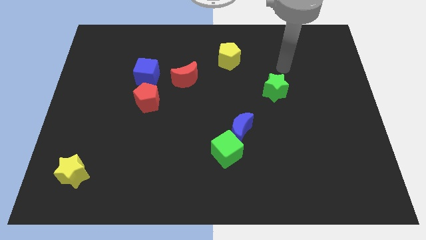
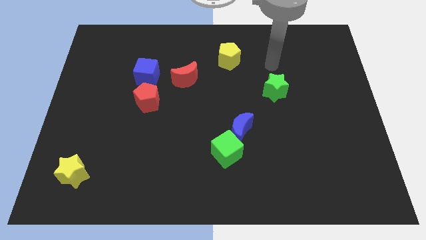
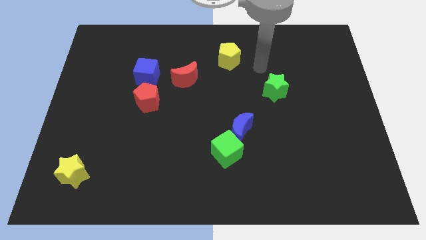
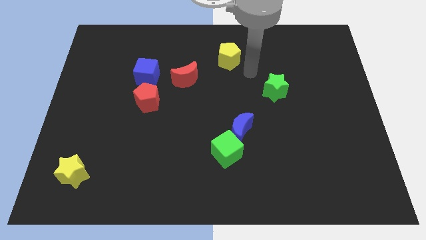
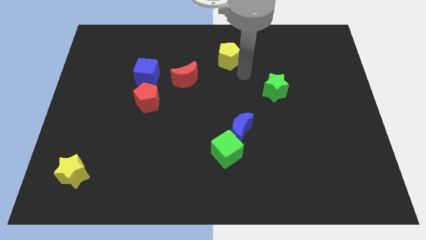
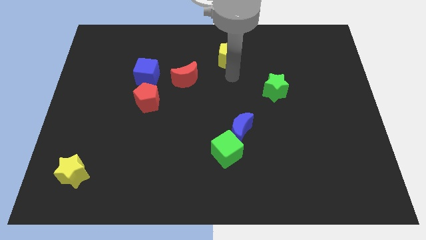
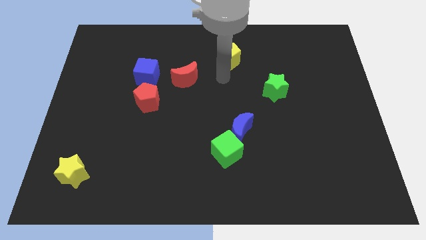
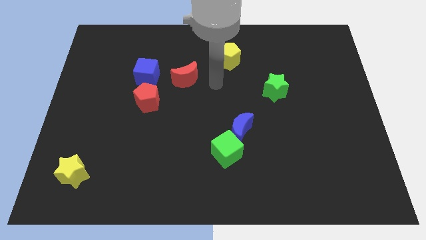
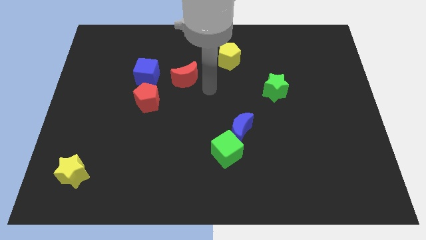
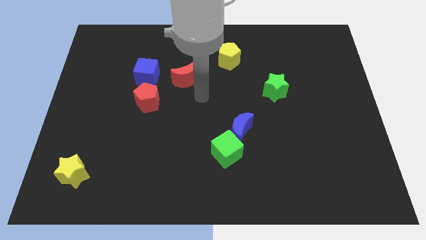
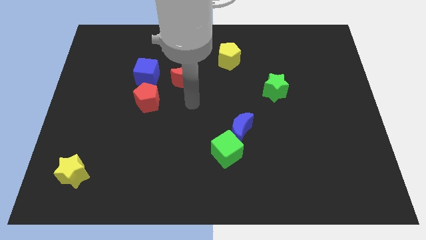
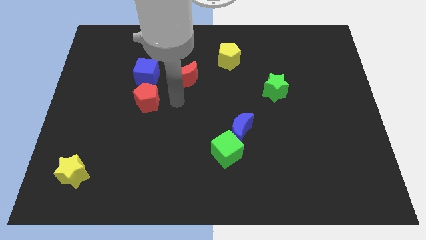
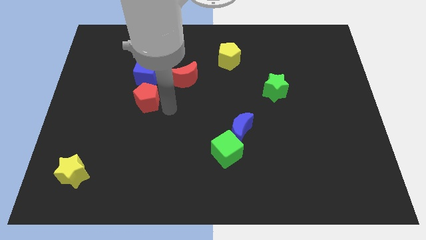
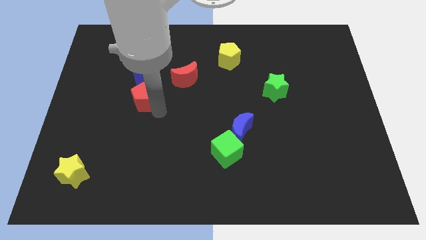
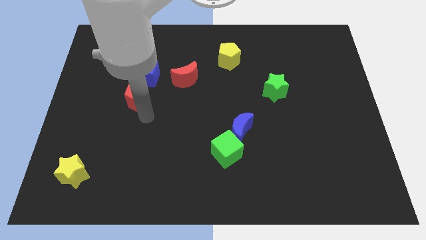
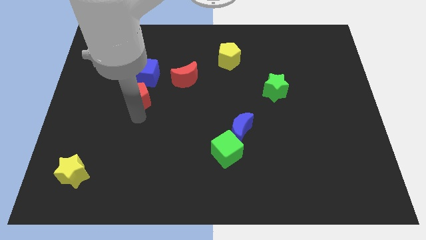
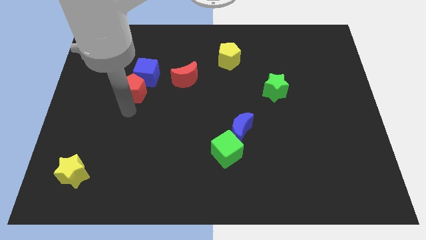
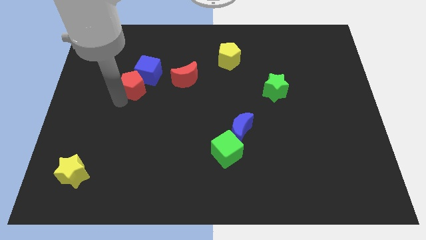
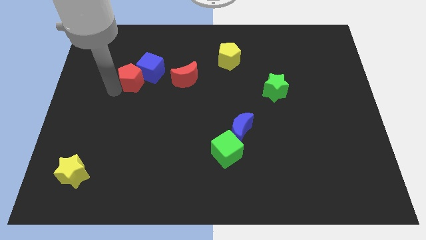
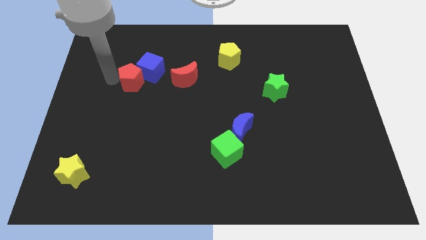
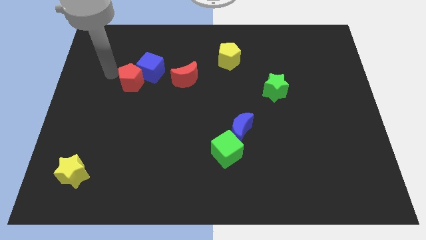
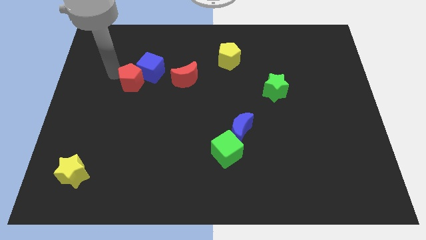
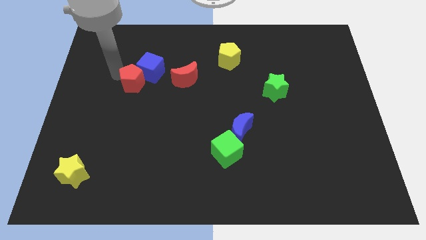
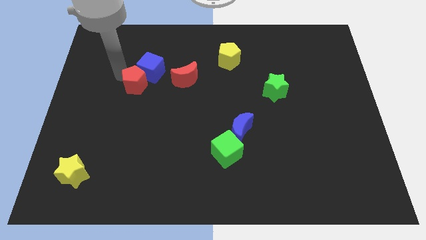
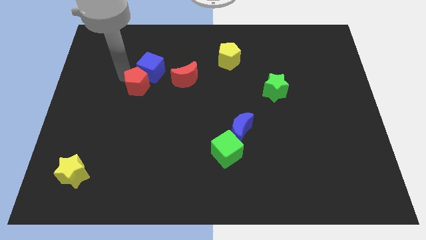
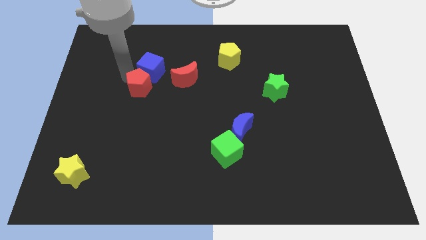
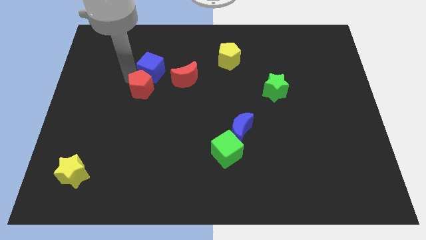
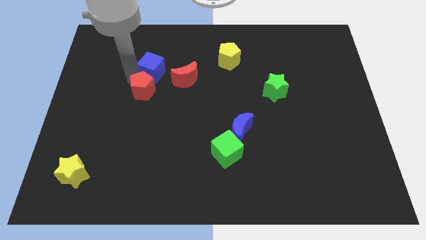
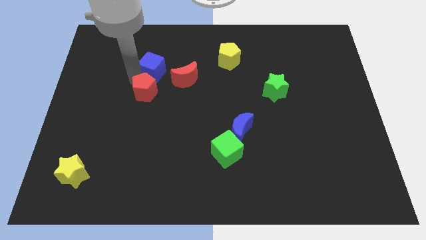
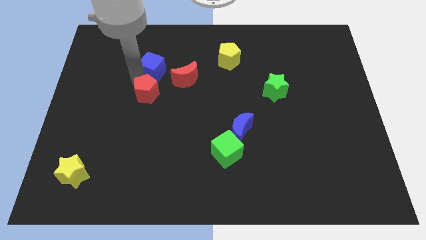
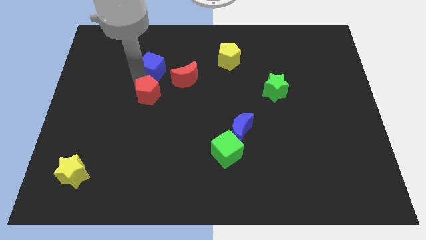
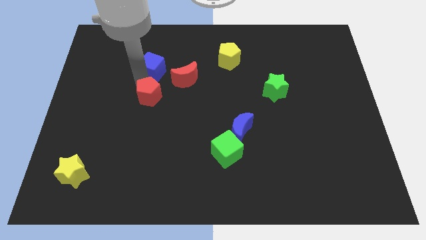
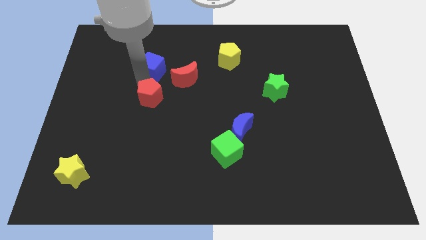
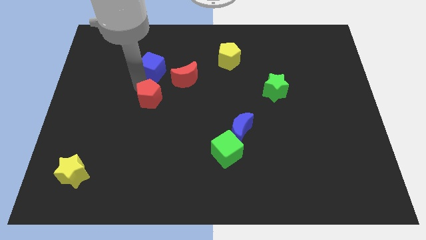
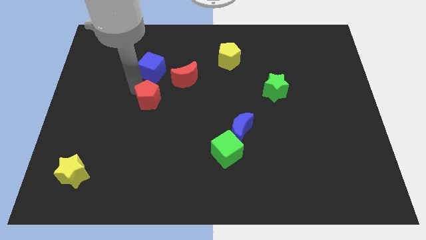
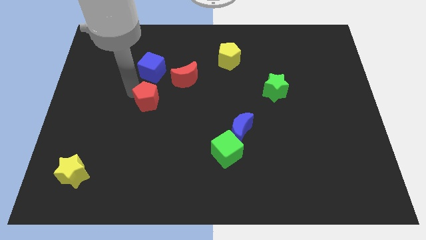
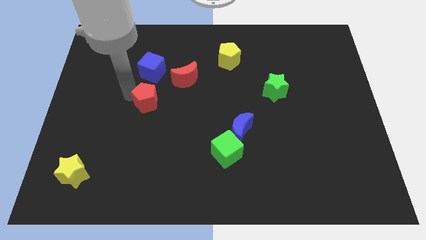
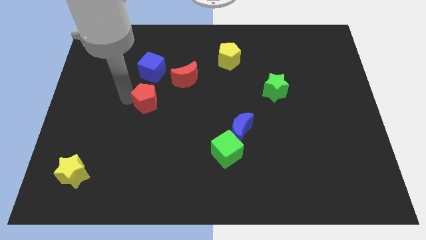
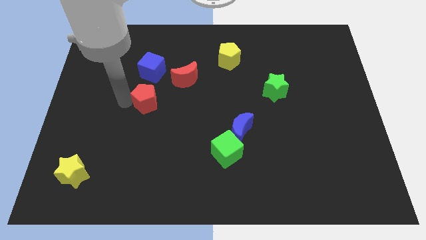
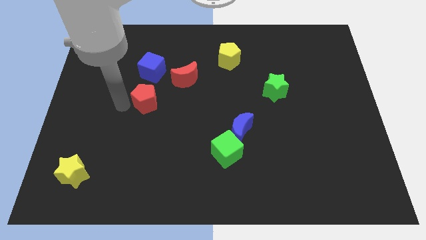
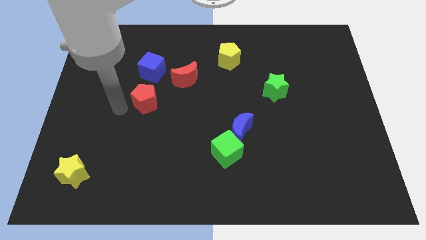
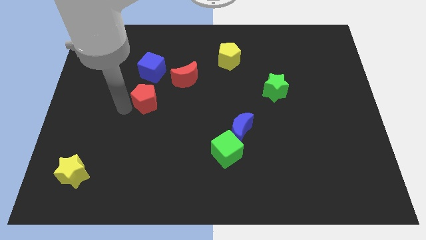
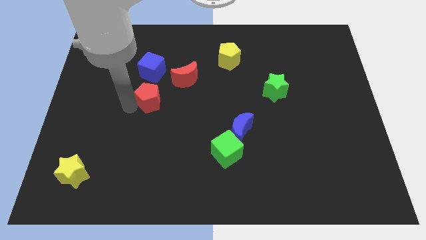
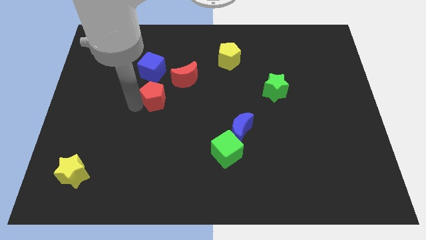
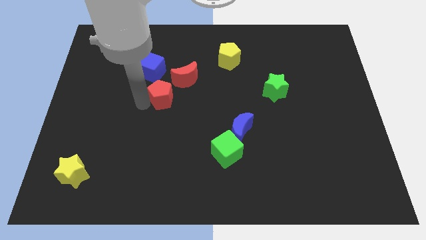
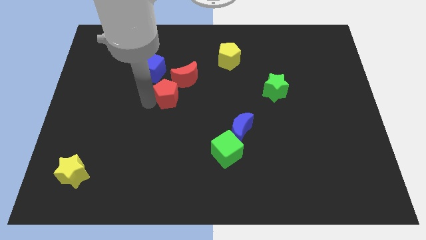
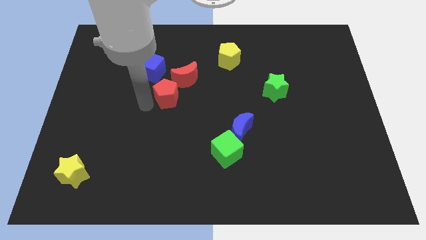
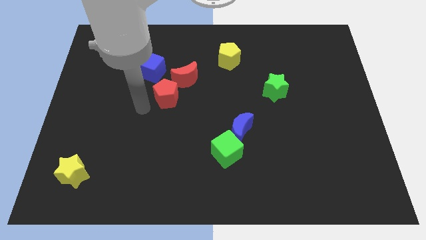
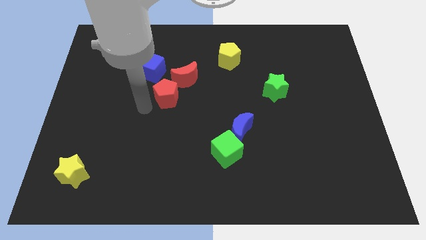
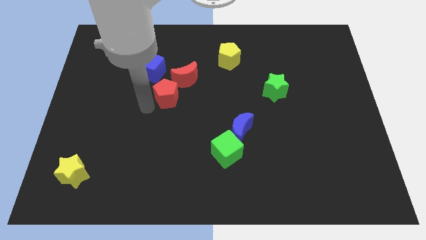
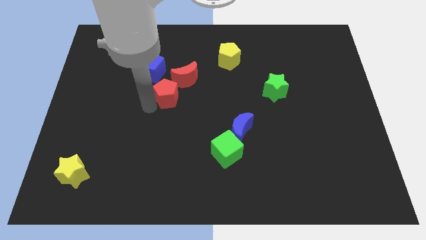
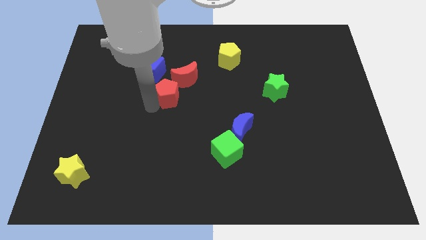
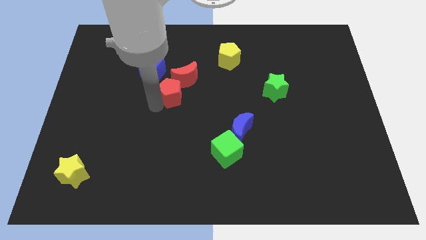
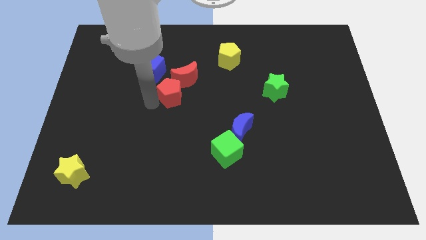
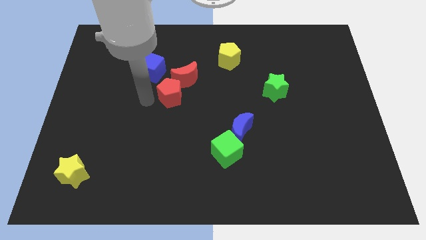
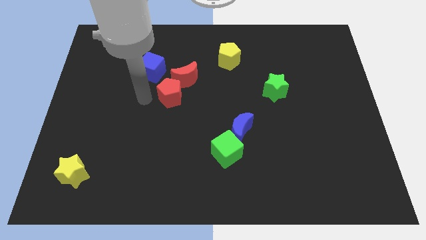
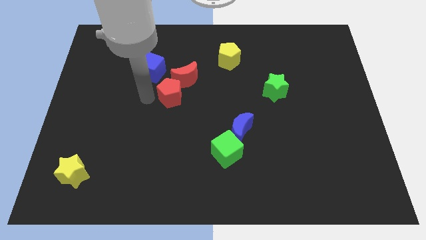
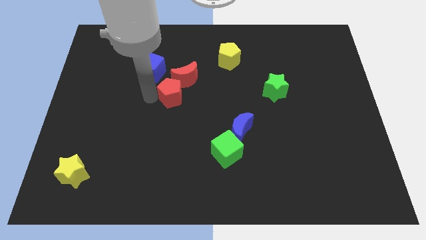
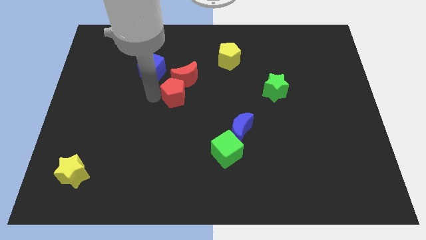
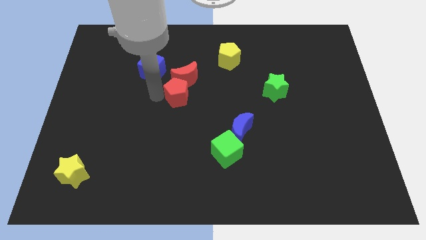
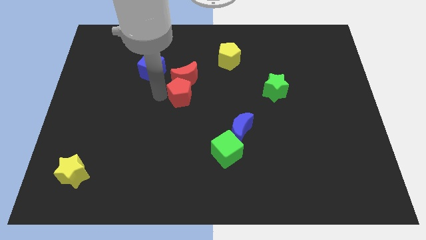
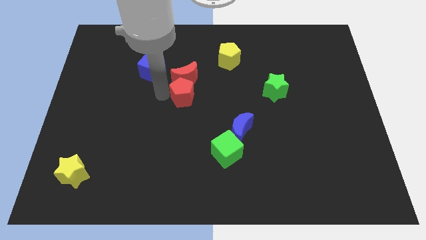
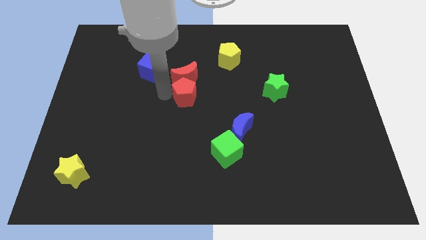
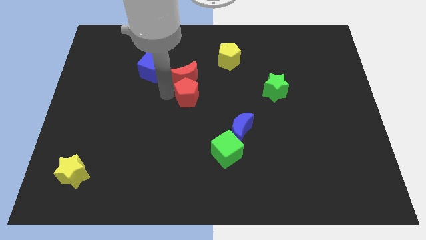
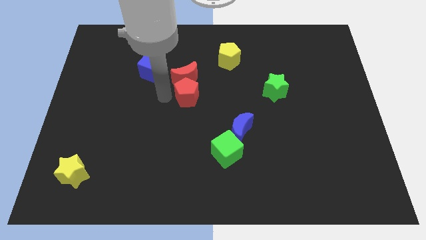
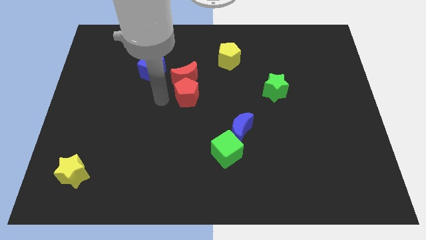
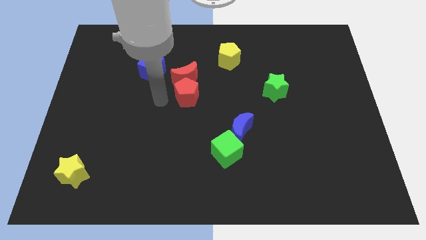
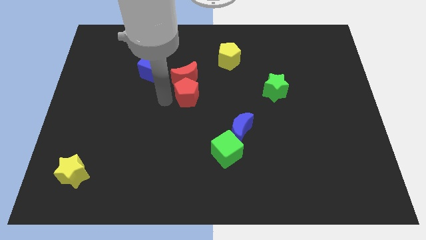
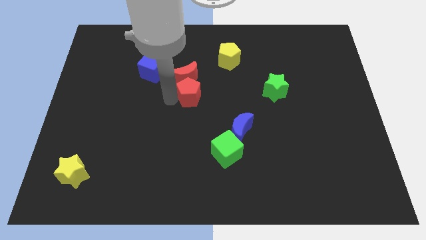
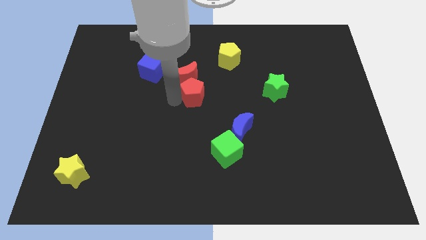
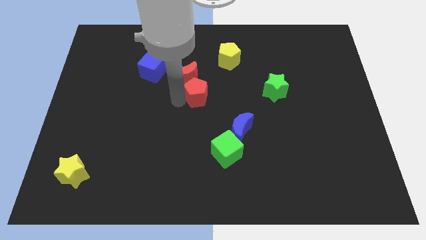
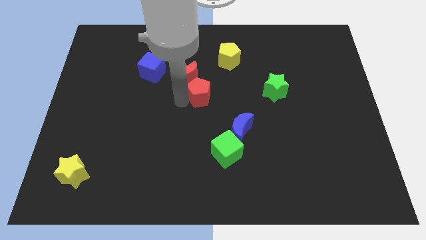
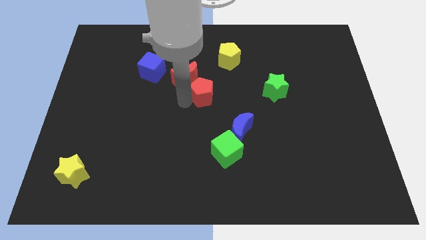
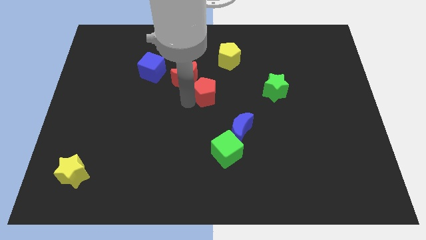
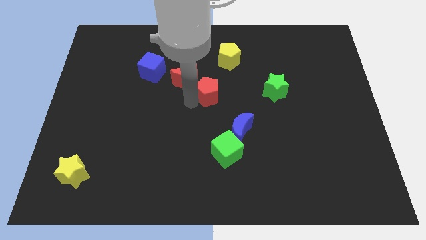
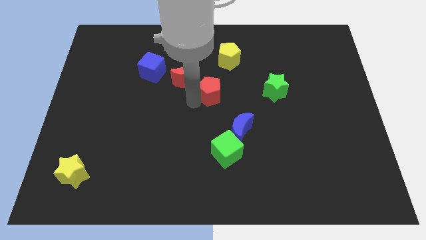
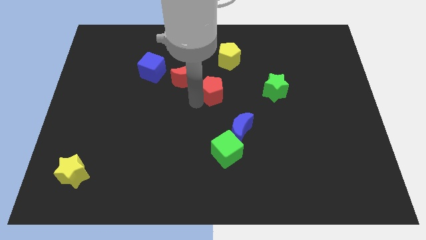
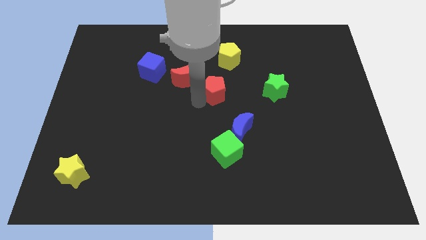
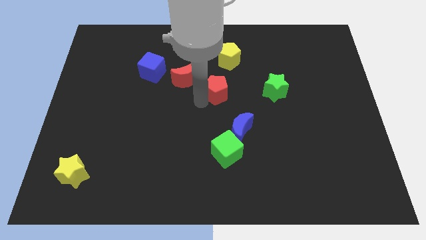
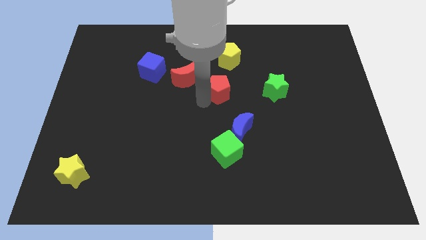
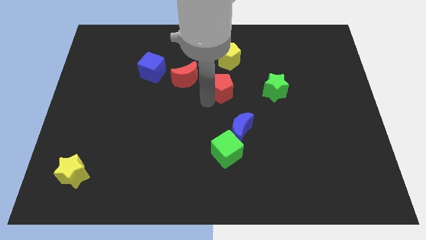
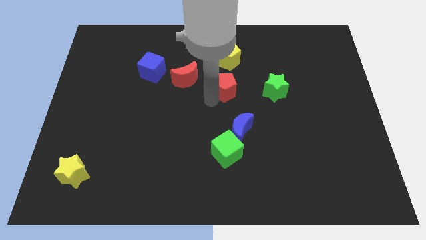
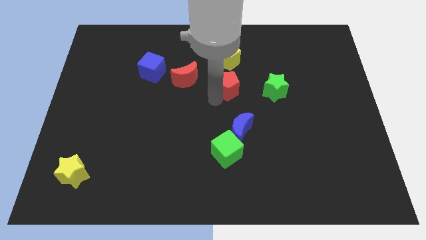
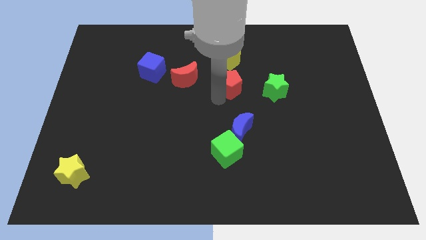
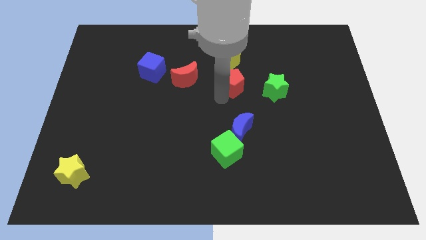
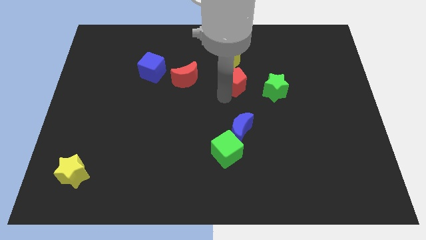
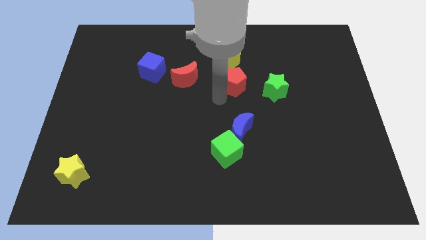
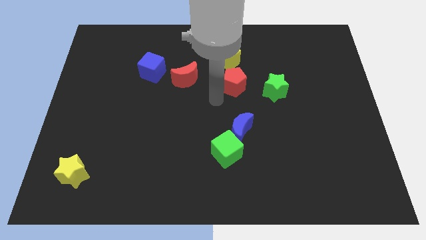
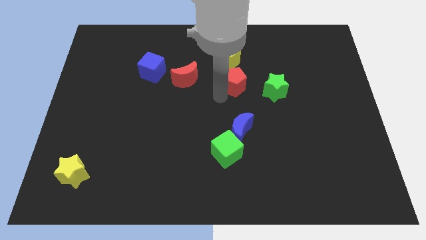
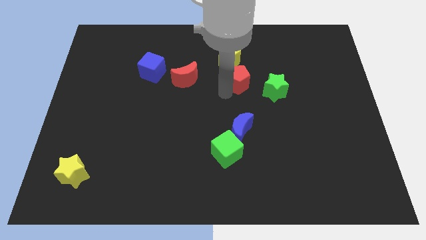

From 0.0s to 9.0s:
push the red pentagon diagonally down and to the right of the yellow pentagon
